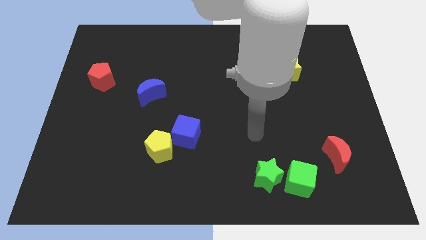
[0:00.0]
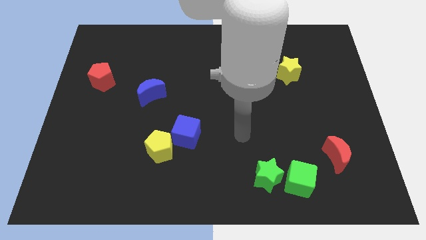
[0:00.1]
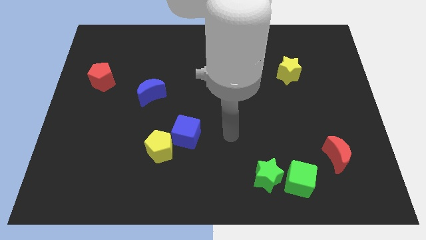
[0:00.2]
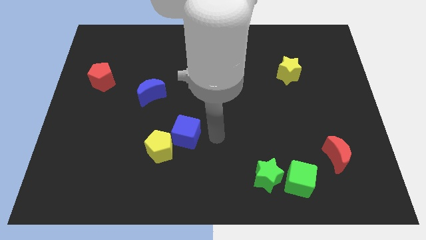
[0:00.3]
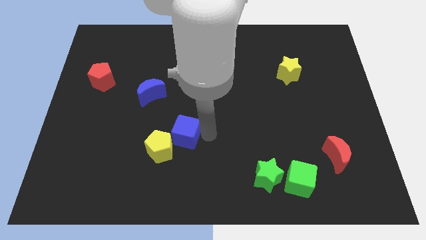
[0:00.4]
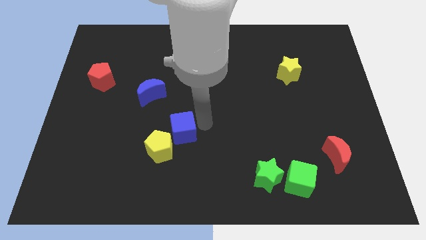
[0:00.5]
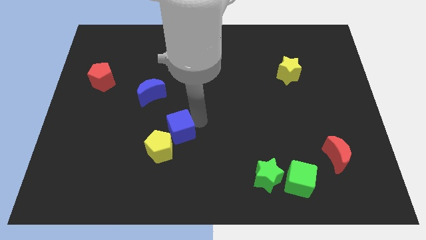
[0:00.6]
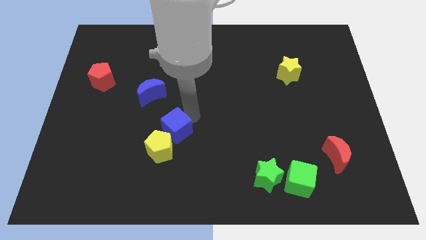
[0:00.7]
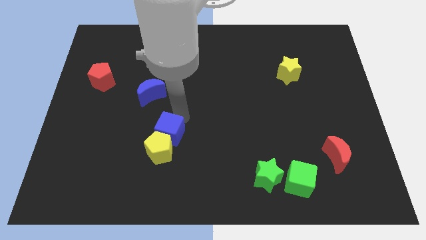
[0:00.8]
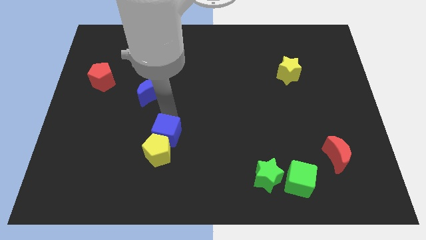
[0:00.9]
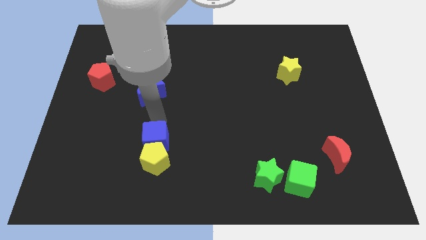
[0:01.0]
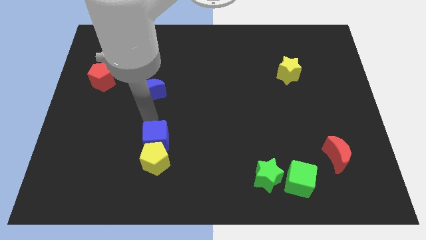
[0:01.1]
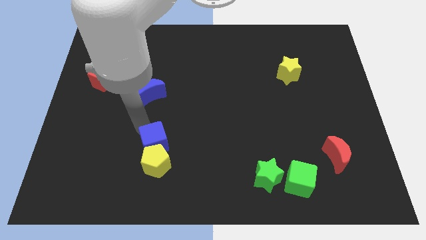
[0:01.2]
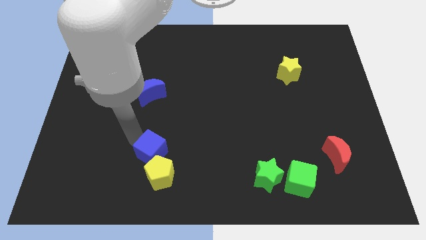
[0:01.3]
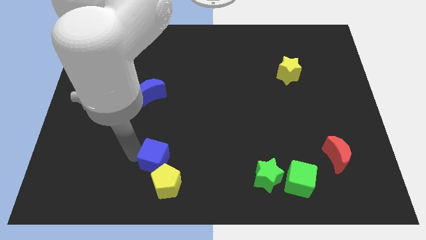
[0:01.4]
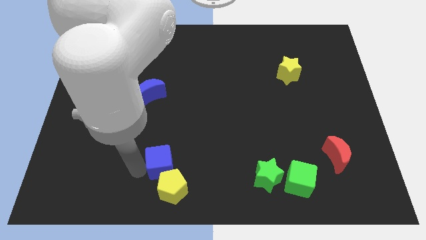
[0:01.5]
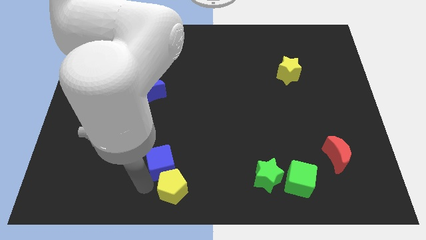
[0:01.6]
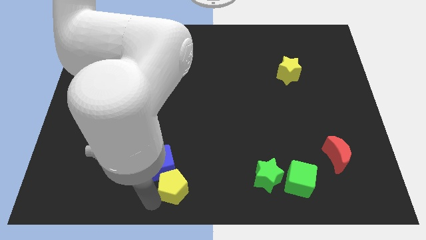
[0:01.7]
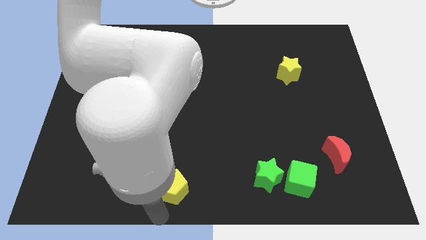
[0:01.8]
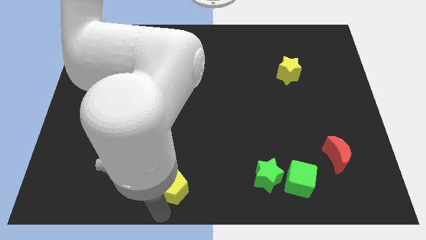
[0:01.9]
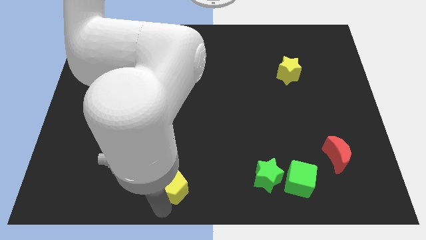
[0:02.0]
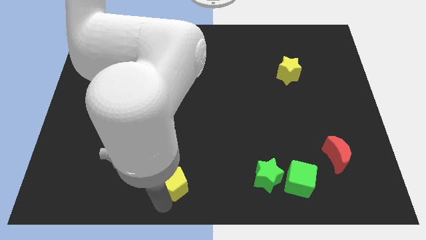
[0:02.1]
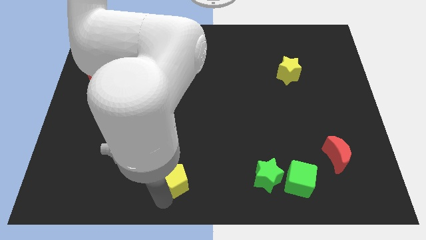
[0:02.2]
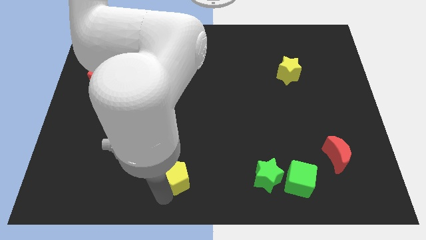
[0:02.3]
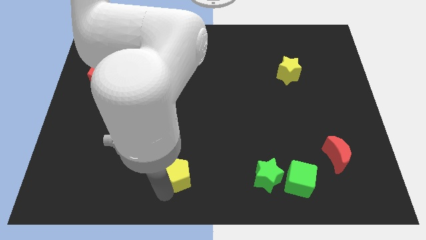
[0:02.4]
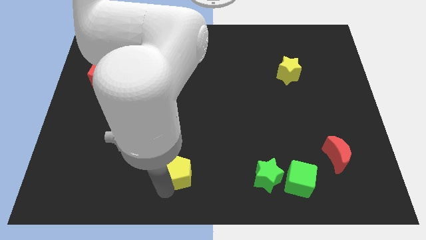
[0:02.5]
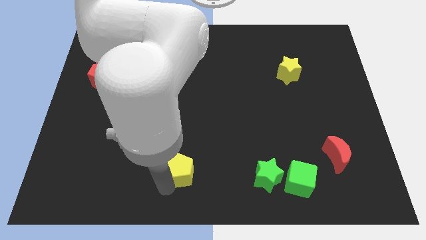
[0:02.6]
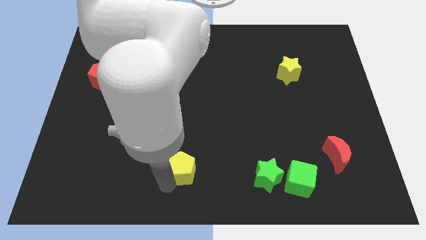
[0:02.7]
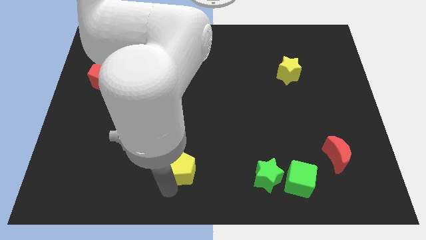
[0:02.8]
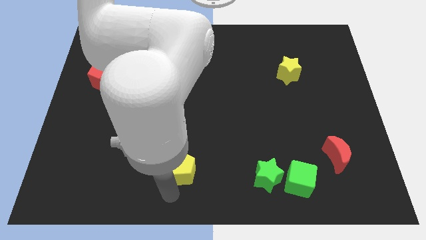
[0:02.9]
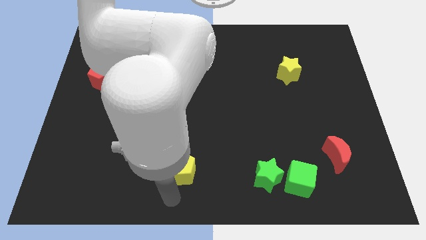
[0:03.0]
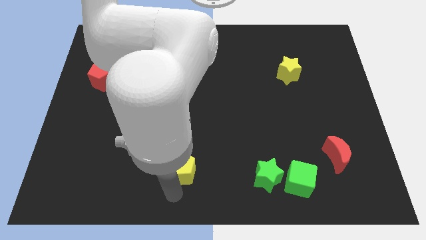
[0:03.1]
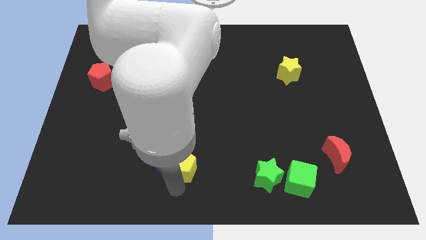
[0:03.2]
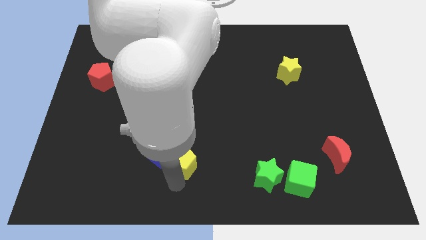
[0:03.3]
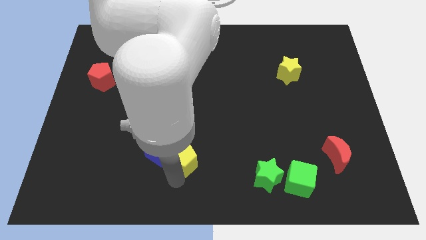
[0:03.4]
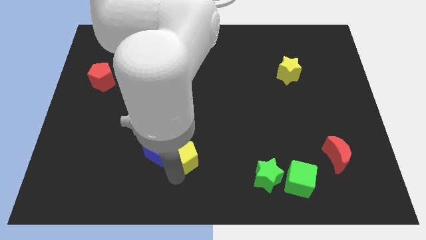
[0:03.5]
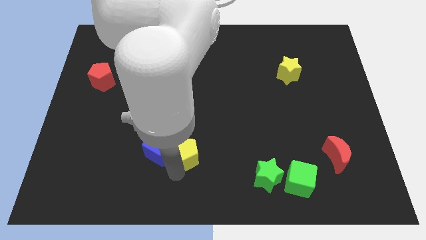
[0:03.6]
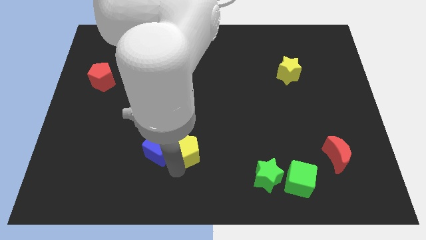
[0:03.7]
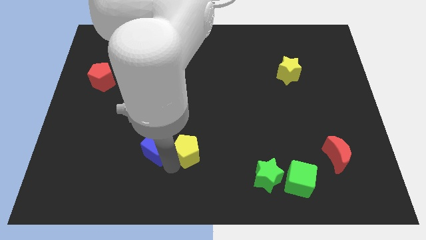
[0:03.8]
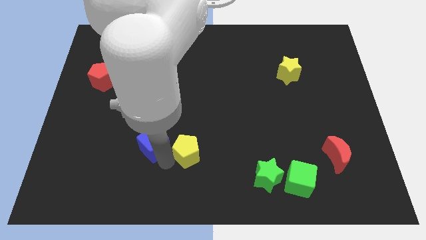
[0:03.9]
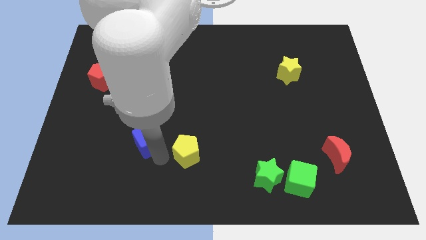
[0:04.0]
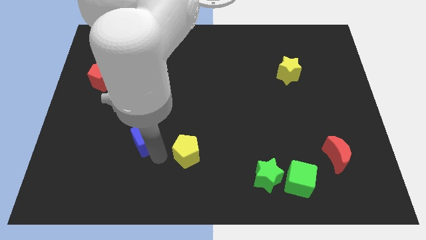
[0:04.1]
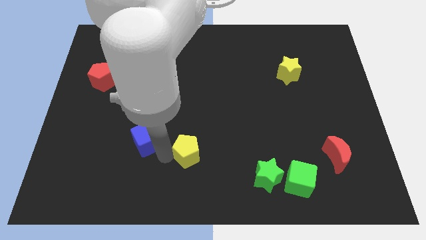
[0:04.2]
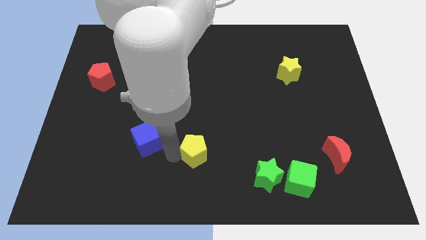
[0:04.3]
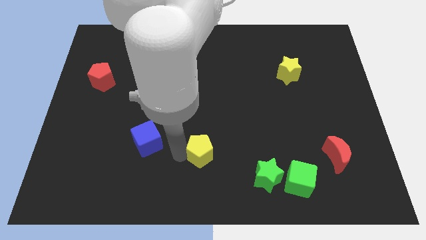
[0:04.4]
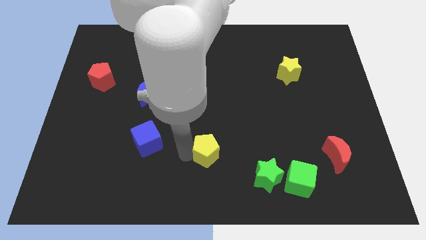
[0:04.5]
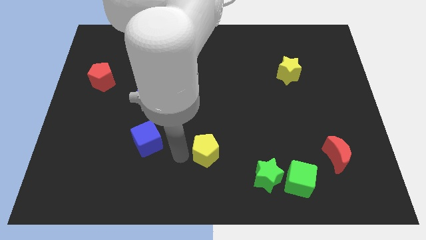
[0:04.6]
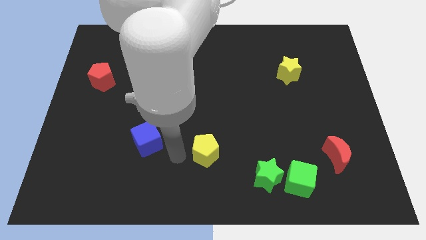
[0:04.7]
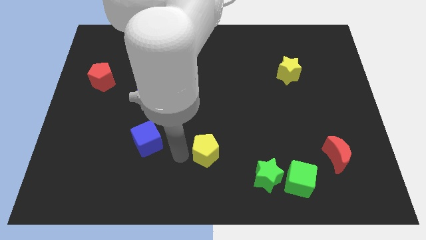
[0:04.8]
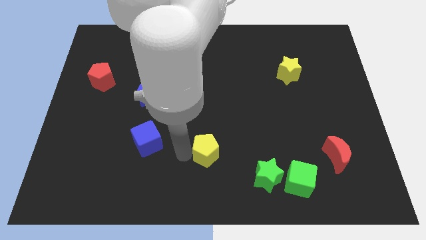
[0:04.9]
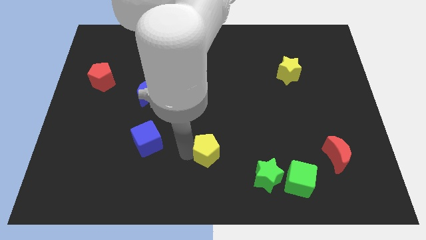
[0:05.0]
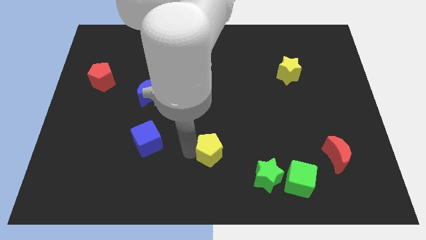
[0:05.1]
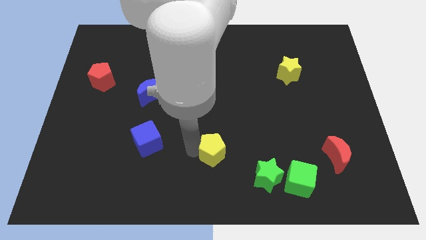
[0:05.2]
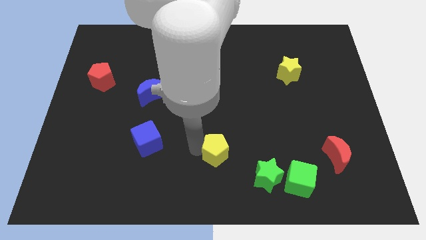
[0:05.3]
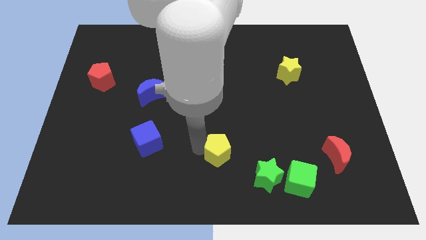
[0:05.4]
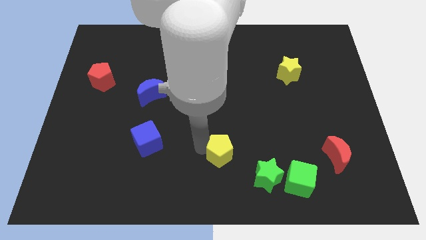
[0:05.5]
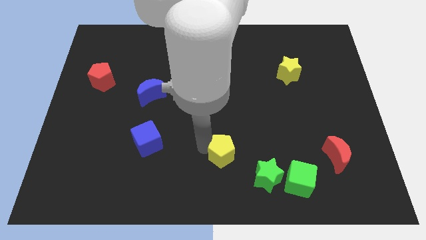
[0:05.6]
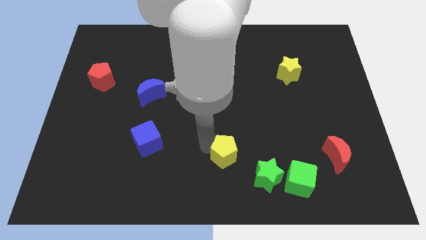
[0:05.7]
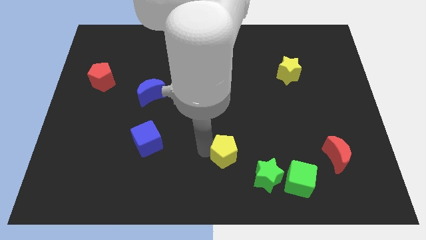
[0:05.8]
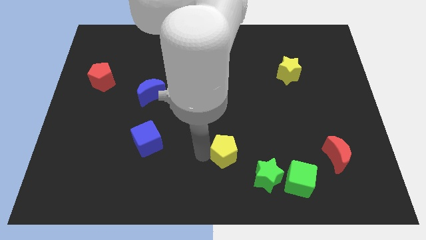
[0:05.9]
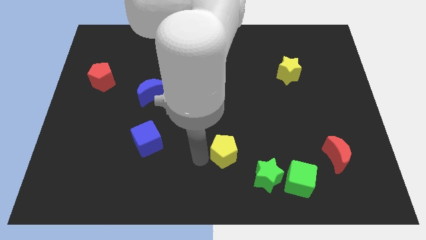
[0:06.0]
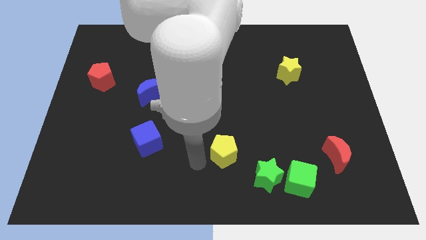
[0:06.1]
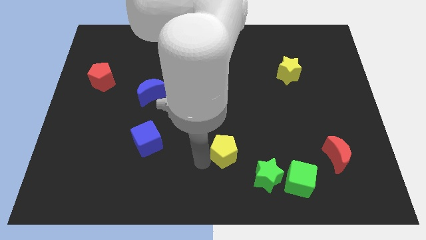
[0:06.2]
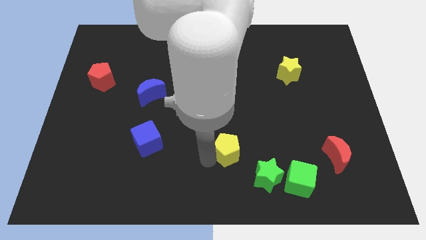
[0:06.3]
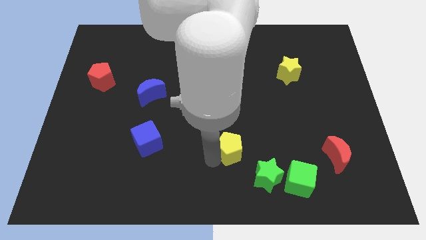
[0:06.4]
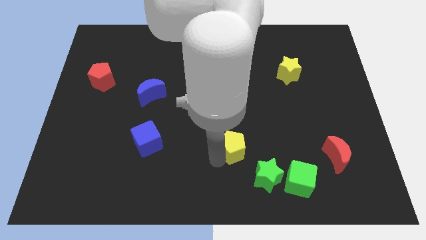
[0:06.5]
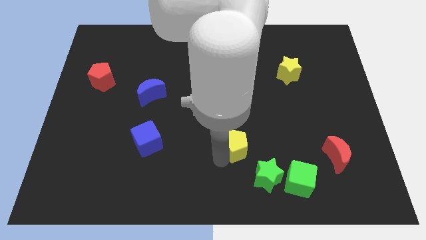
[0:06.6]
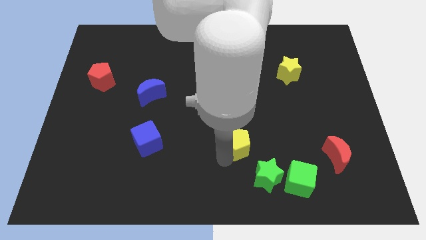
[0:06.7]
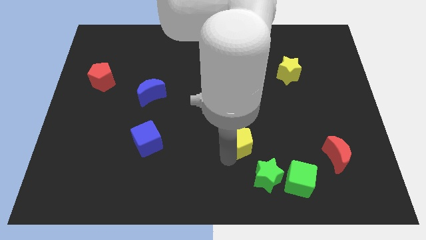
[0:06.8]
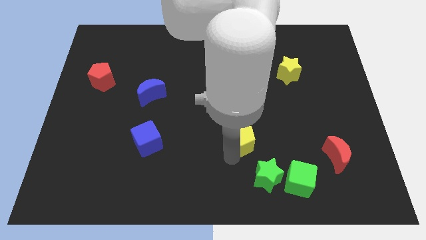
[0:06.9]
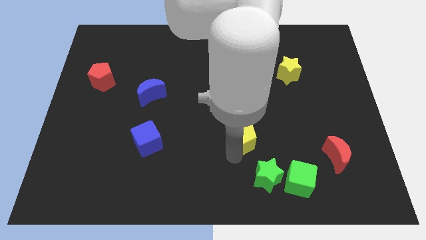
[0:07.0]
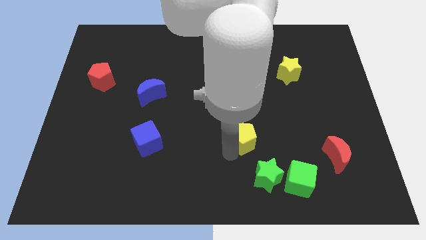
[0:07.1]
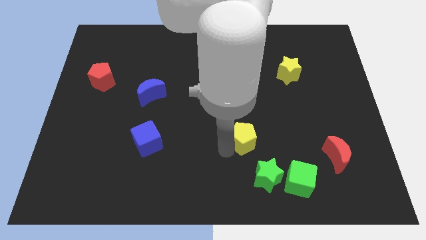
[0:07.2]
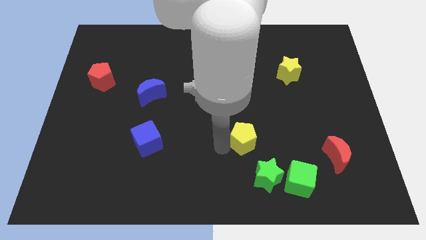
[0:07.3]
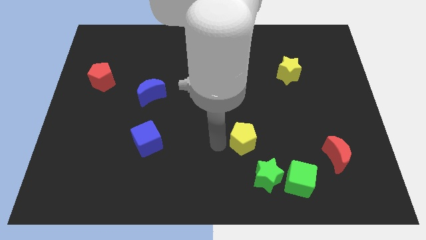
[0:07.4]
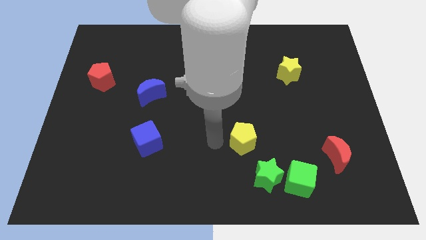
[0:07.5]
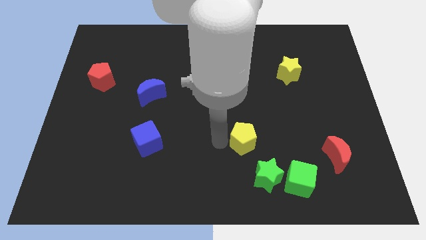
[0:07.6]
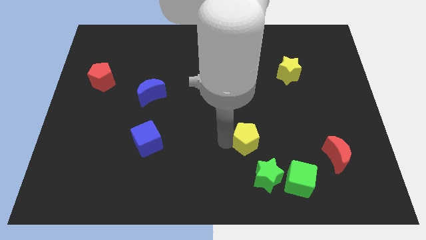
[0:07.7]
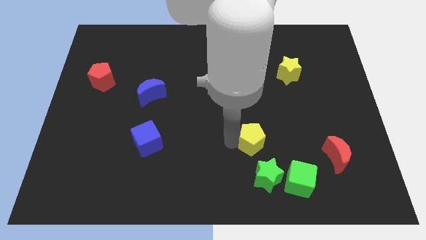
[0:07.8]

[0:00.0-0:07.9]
slide the yellow pentagon right

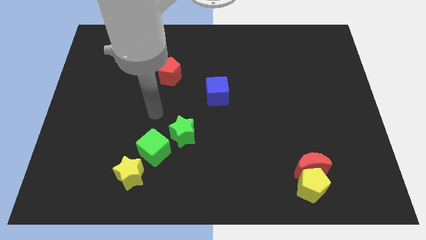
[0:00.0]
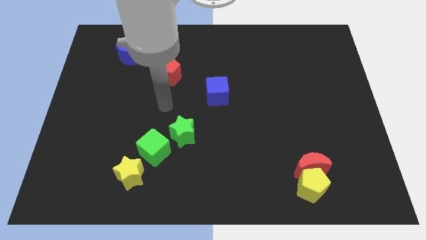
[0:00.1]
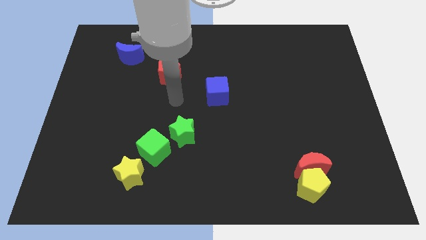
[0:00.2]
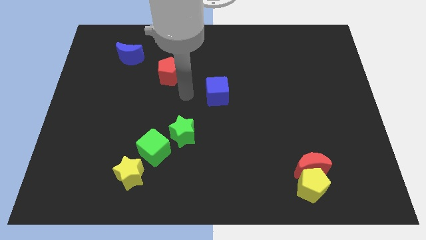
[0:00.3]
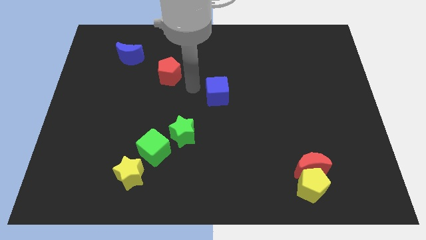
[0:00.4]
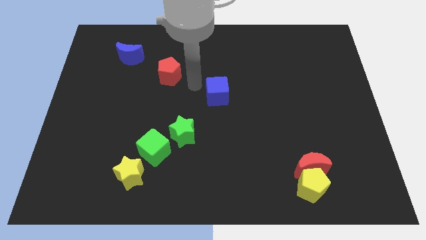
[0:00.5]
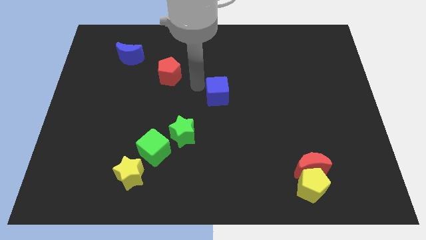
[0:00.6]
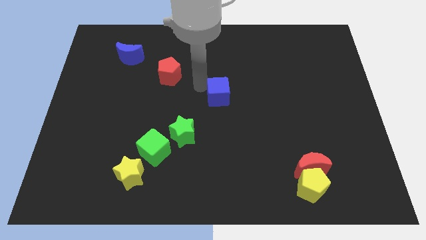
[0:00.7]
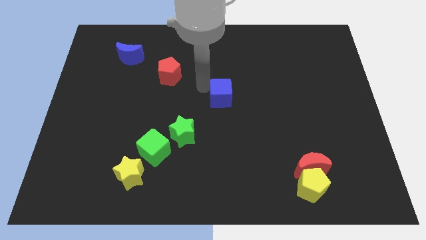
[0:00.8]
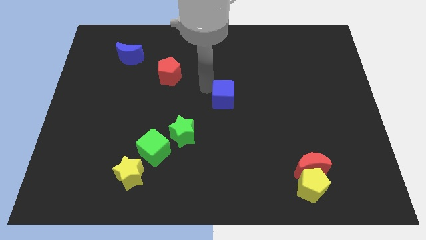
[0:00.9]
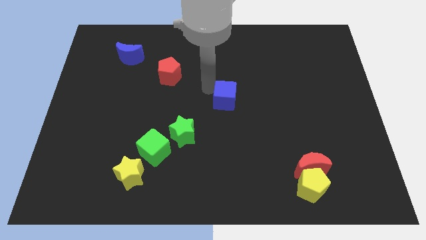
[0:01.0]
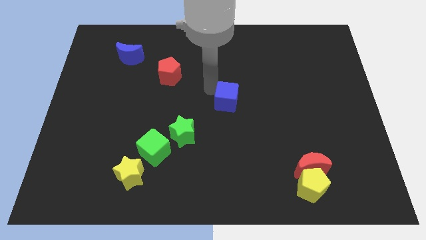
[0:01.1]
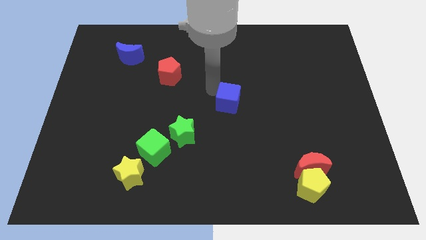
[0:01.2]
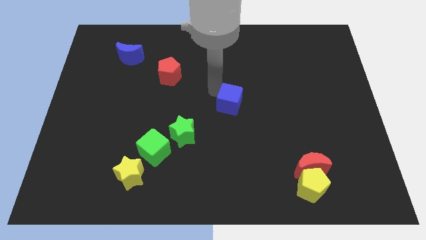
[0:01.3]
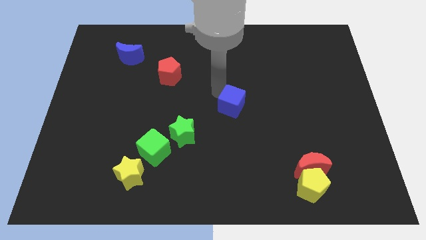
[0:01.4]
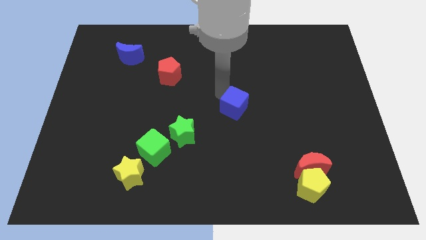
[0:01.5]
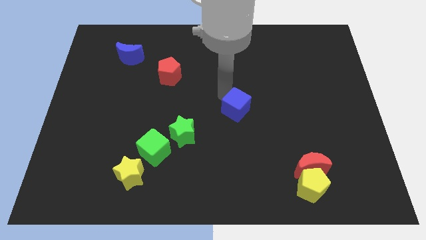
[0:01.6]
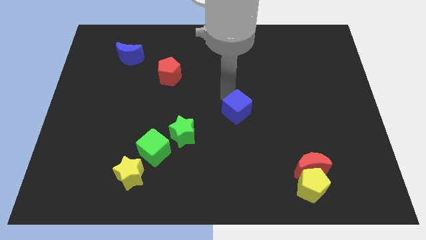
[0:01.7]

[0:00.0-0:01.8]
slide the blue cube somewhat downwards and to the right
